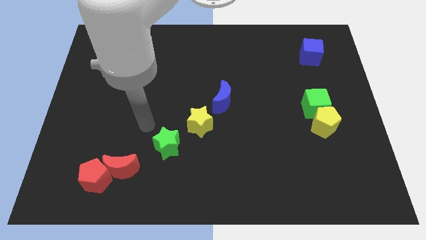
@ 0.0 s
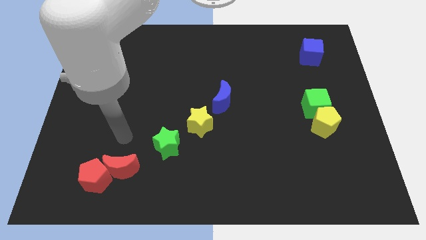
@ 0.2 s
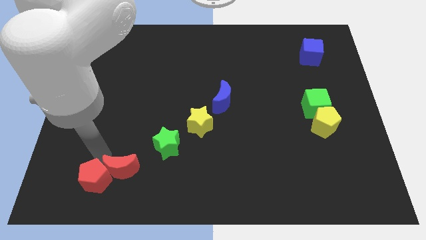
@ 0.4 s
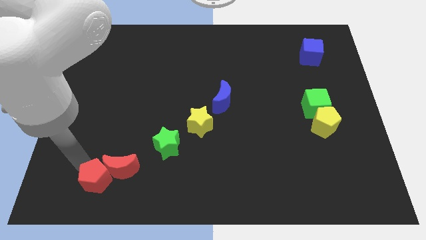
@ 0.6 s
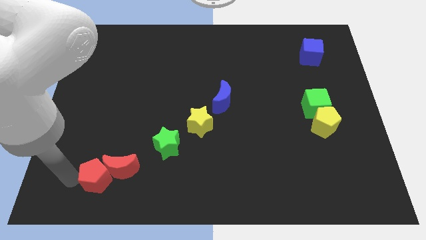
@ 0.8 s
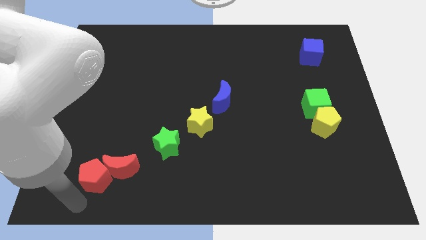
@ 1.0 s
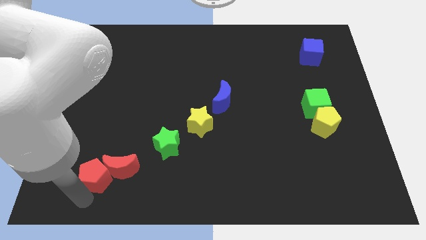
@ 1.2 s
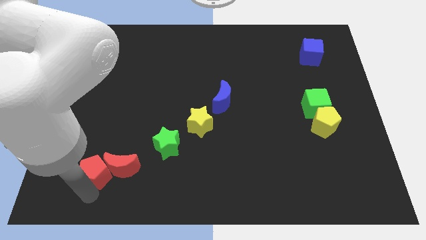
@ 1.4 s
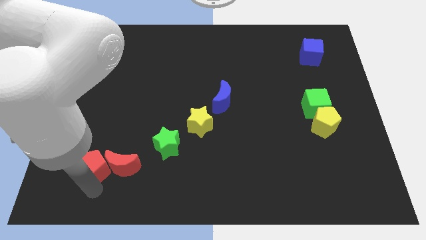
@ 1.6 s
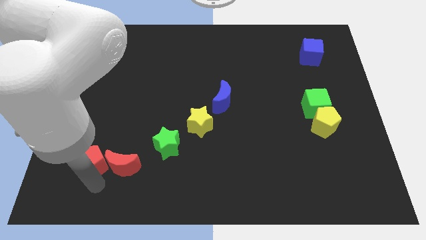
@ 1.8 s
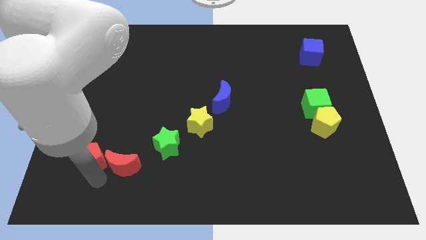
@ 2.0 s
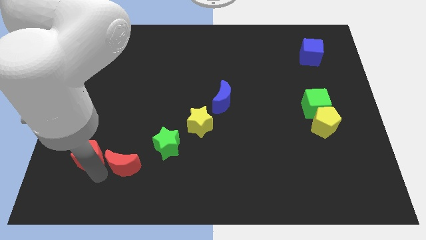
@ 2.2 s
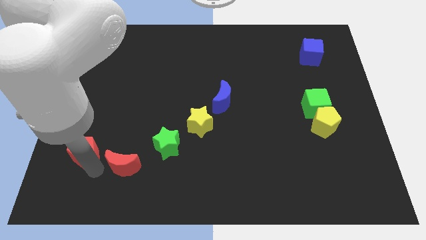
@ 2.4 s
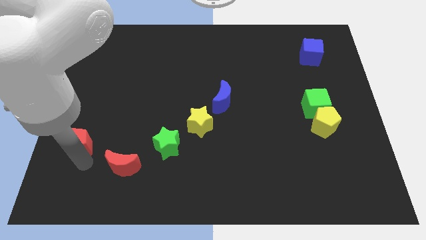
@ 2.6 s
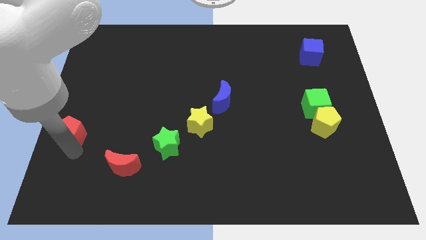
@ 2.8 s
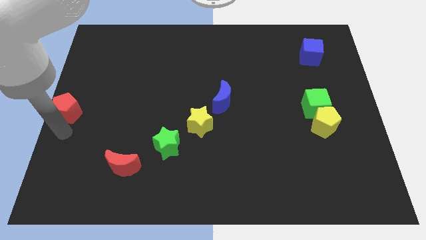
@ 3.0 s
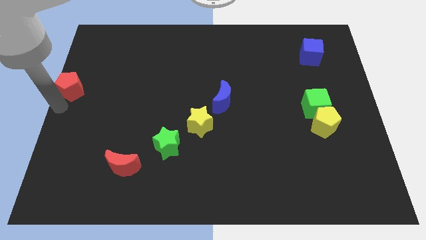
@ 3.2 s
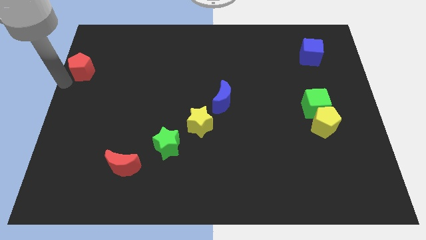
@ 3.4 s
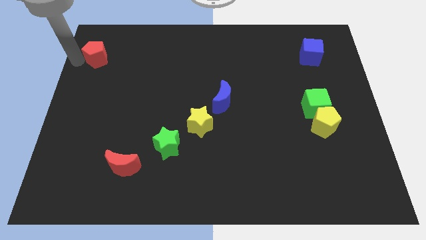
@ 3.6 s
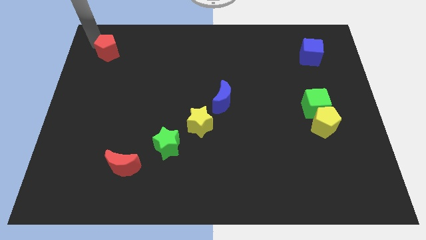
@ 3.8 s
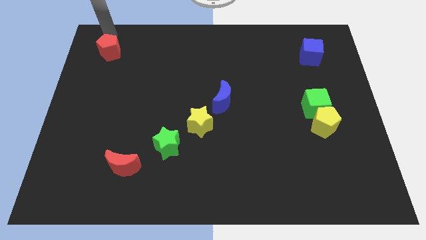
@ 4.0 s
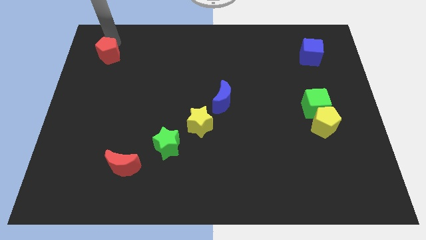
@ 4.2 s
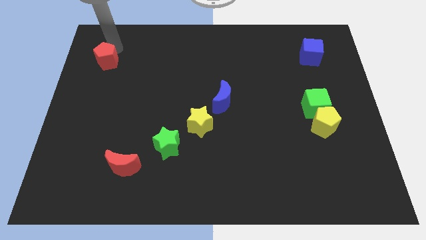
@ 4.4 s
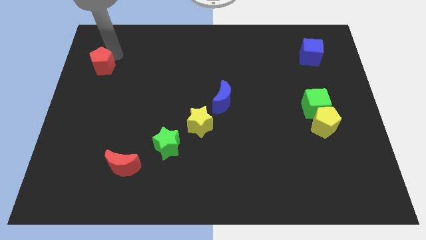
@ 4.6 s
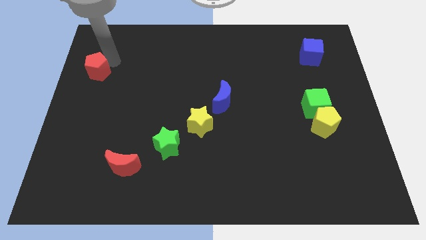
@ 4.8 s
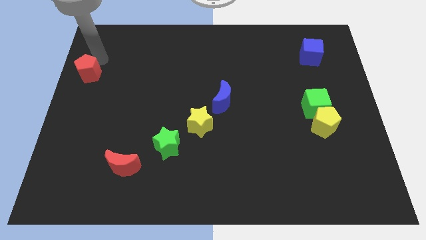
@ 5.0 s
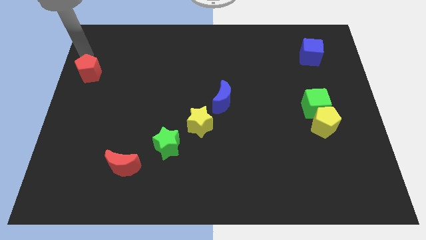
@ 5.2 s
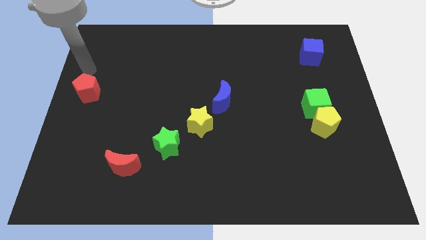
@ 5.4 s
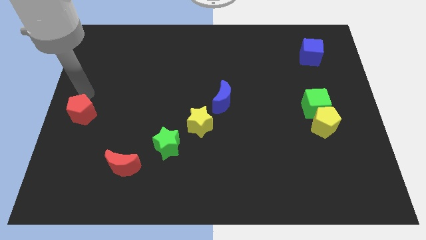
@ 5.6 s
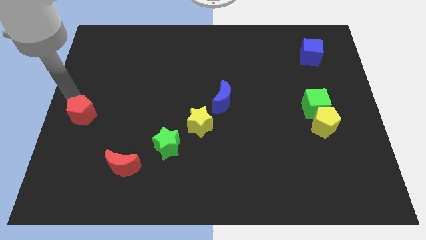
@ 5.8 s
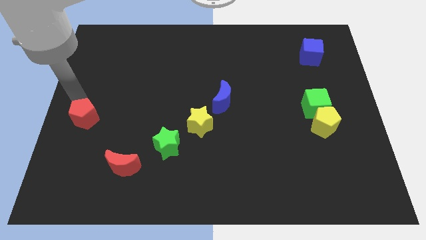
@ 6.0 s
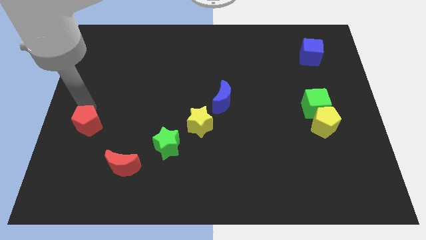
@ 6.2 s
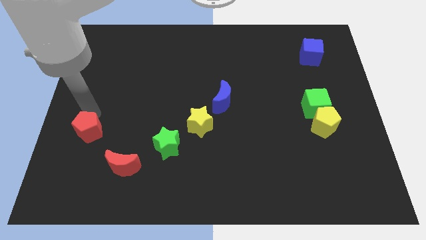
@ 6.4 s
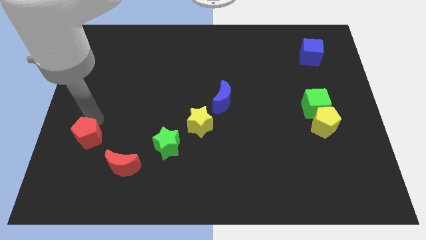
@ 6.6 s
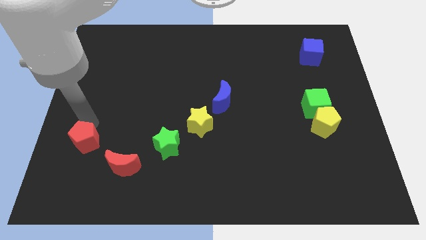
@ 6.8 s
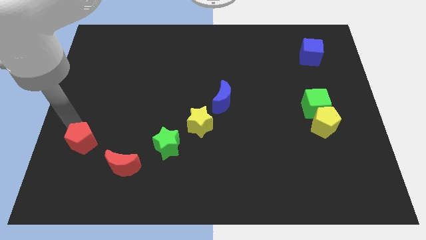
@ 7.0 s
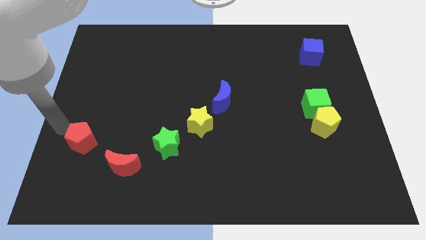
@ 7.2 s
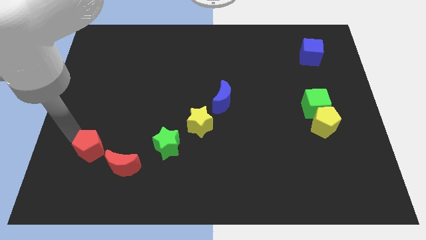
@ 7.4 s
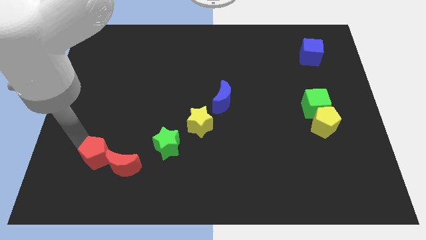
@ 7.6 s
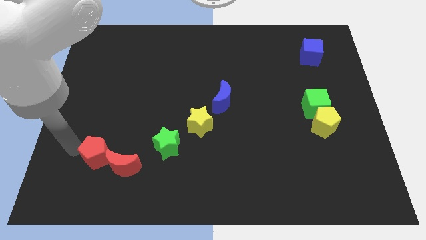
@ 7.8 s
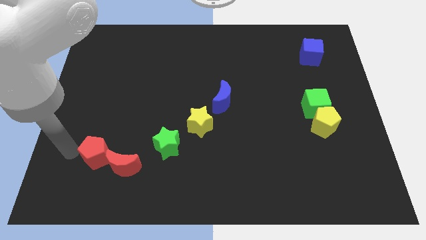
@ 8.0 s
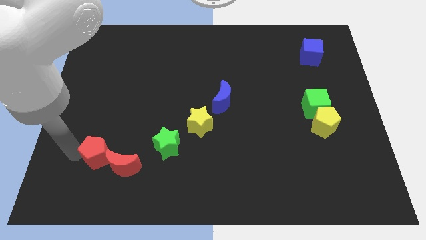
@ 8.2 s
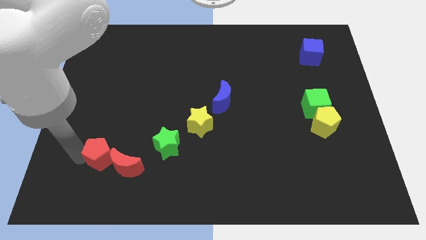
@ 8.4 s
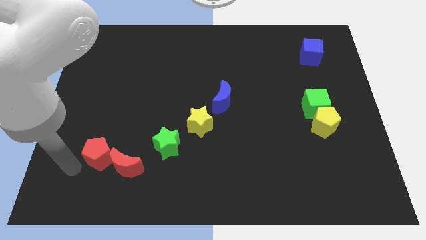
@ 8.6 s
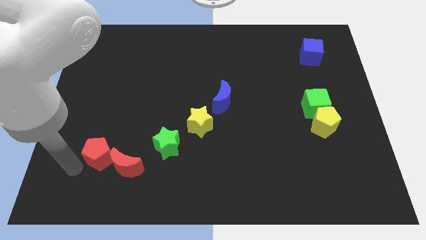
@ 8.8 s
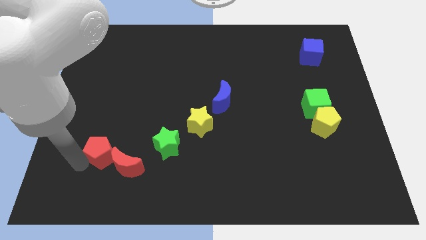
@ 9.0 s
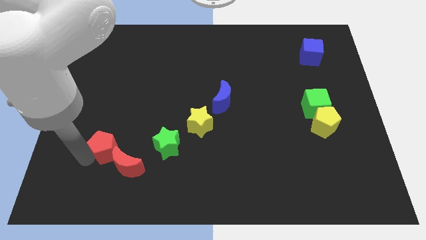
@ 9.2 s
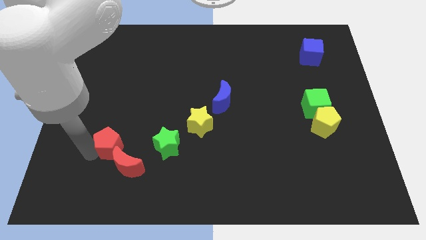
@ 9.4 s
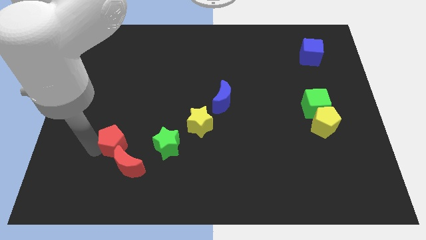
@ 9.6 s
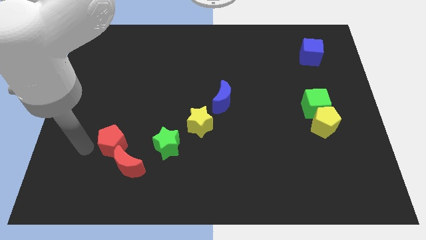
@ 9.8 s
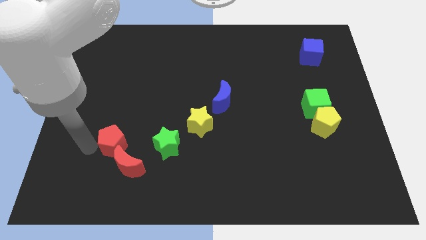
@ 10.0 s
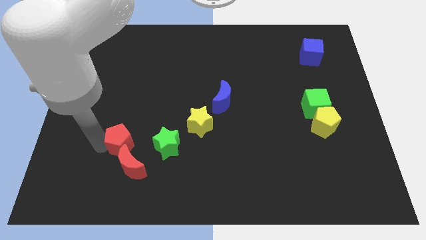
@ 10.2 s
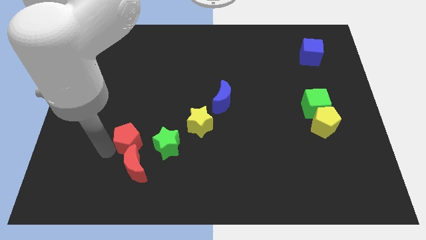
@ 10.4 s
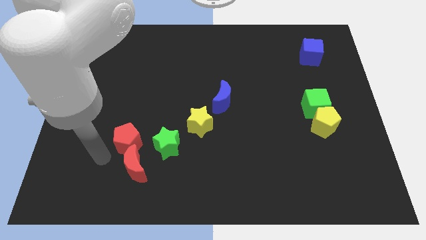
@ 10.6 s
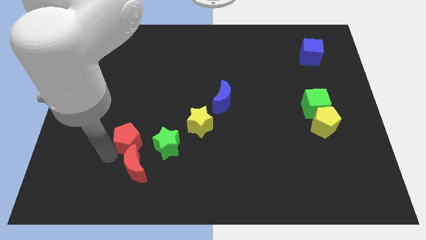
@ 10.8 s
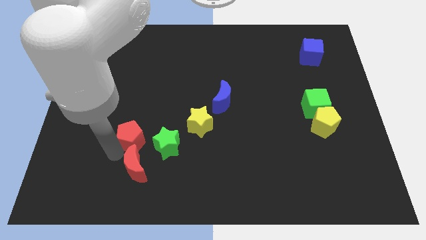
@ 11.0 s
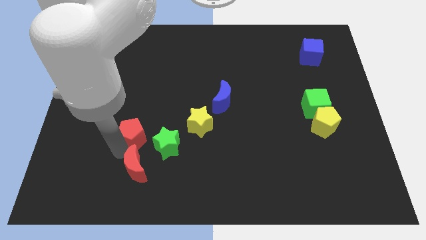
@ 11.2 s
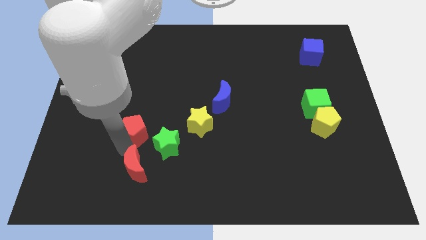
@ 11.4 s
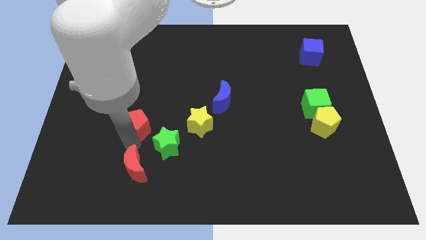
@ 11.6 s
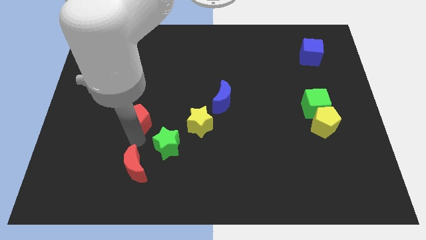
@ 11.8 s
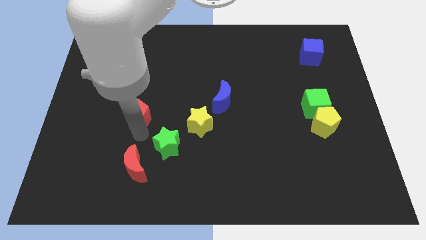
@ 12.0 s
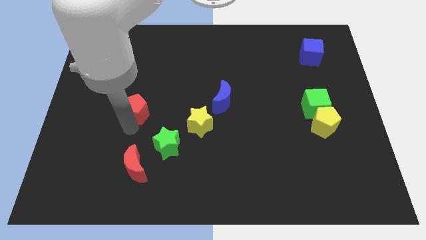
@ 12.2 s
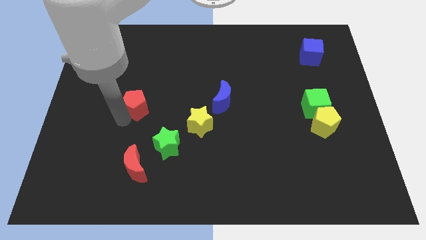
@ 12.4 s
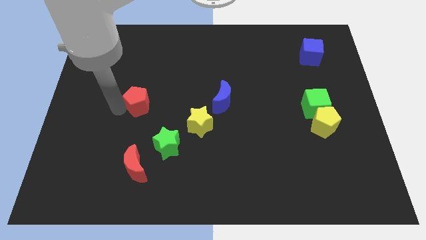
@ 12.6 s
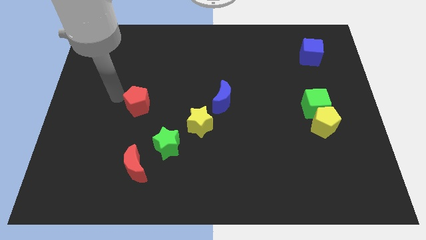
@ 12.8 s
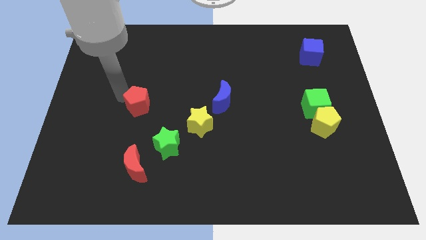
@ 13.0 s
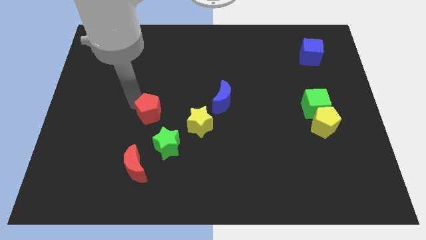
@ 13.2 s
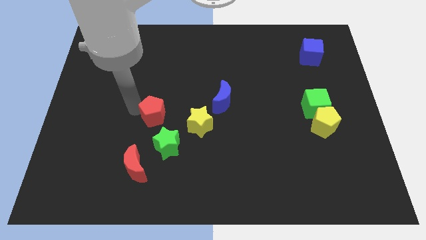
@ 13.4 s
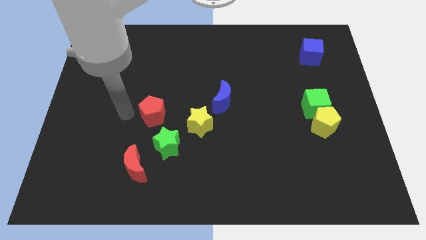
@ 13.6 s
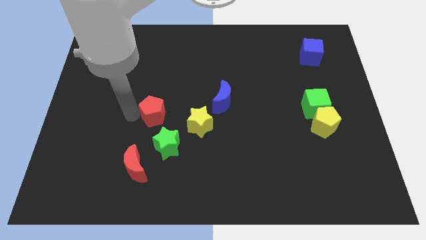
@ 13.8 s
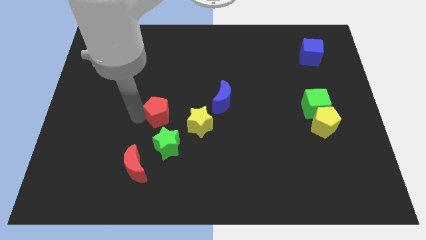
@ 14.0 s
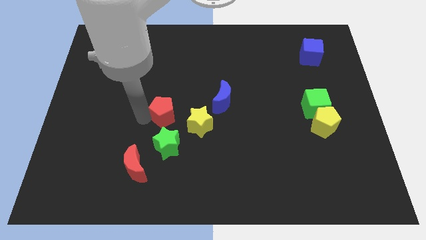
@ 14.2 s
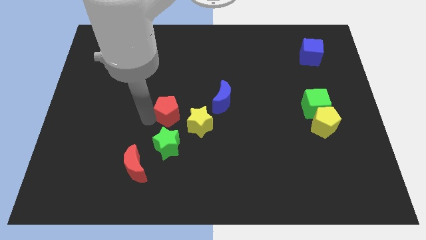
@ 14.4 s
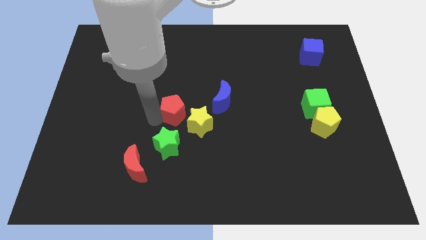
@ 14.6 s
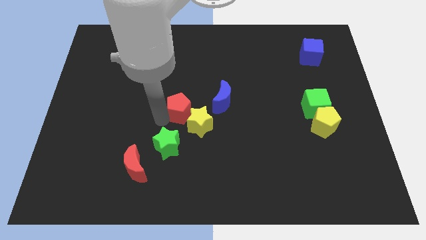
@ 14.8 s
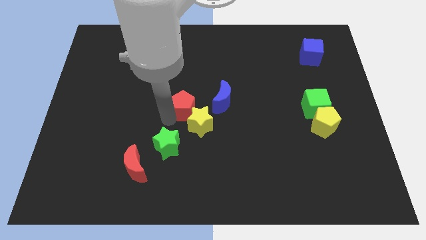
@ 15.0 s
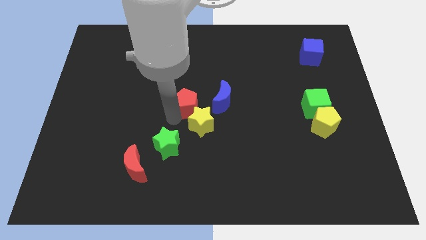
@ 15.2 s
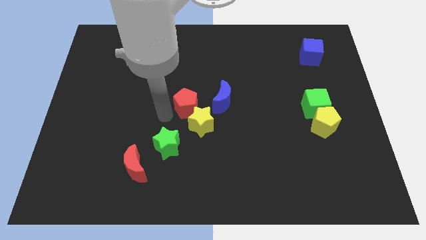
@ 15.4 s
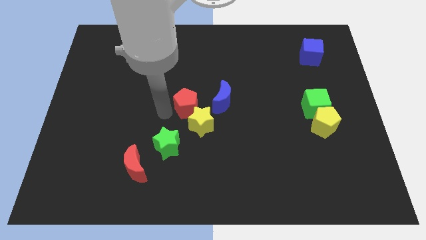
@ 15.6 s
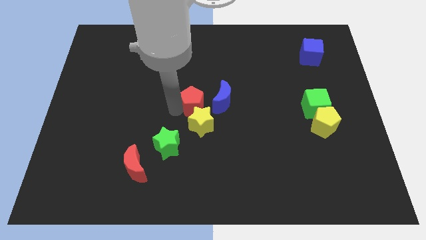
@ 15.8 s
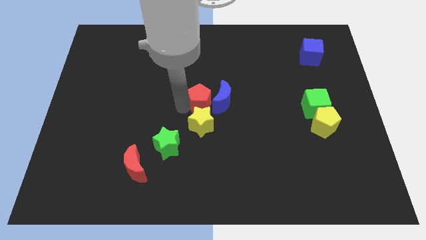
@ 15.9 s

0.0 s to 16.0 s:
move the red pentagon towards the blue moon
